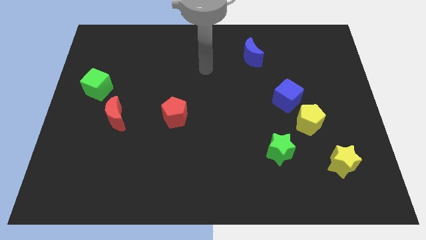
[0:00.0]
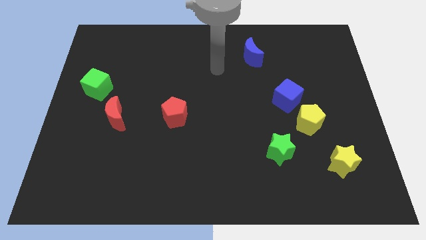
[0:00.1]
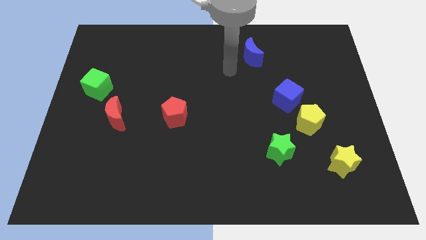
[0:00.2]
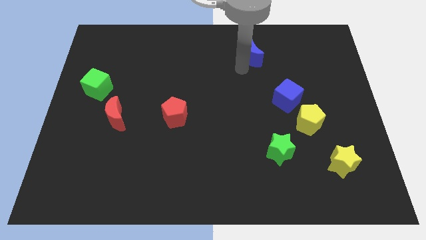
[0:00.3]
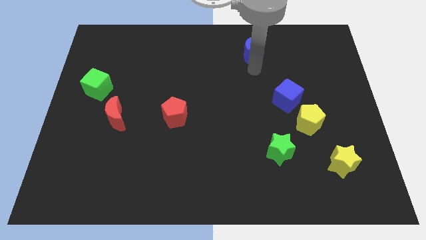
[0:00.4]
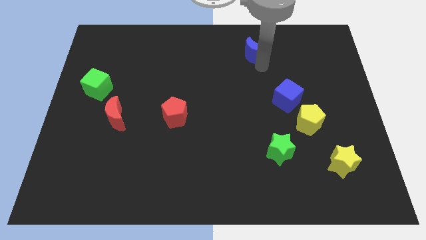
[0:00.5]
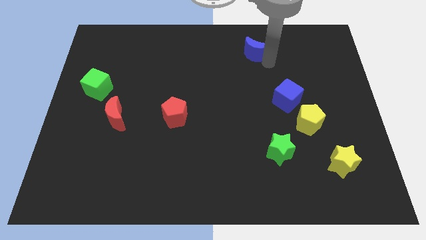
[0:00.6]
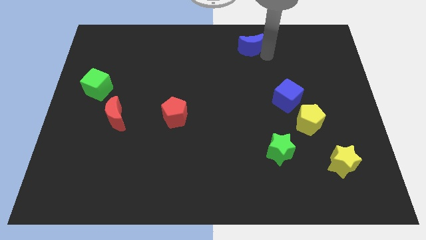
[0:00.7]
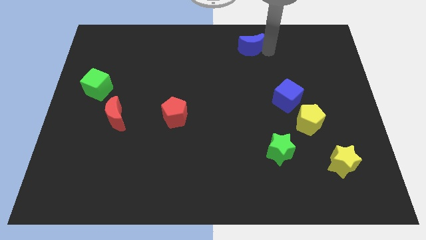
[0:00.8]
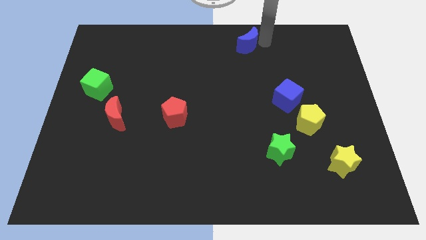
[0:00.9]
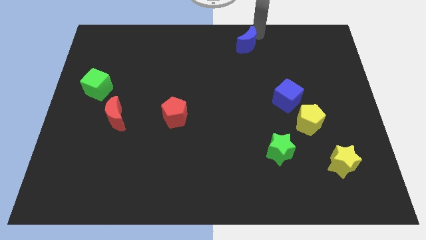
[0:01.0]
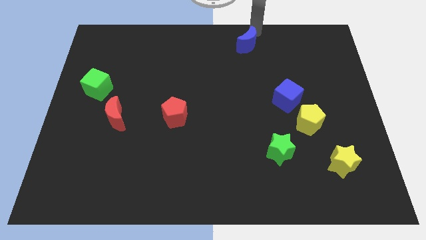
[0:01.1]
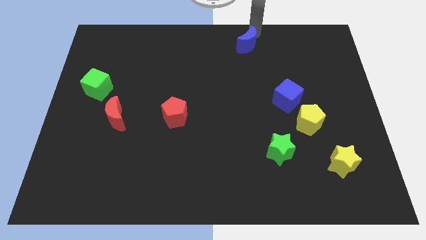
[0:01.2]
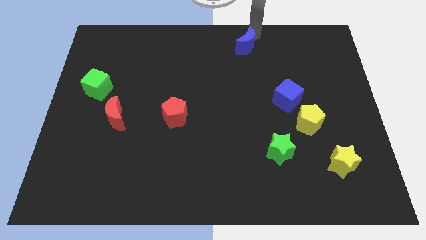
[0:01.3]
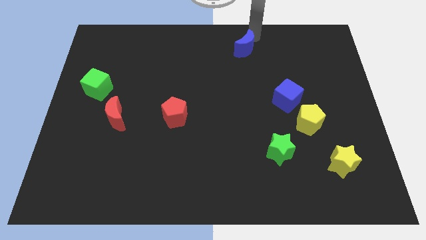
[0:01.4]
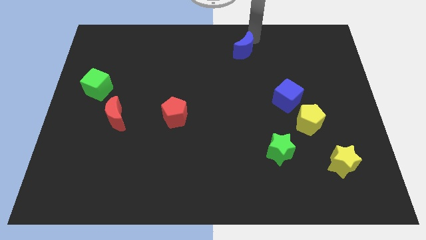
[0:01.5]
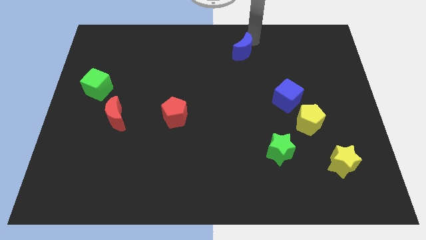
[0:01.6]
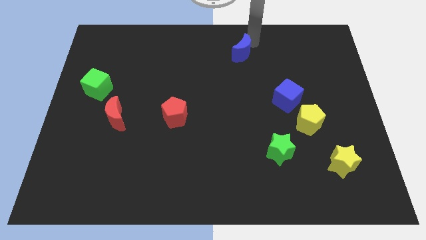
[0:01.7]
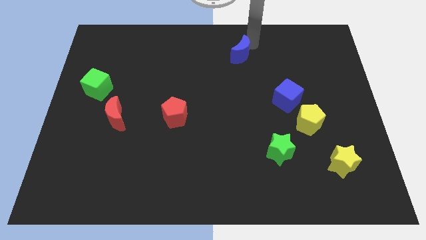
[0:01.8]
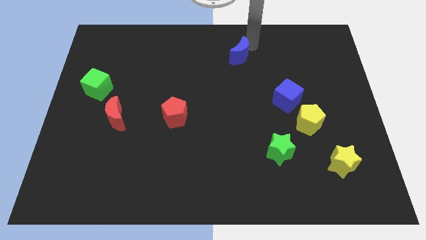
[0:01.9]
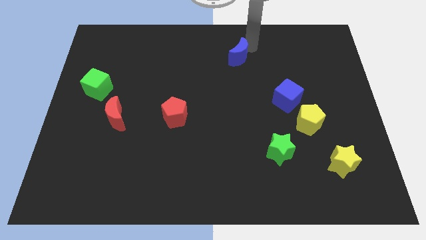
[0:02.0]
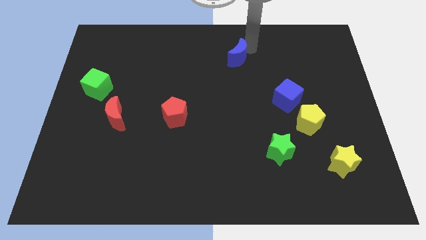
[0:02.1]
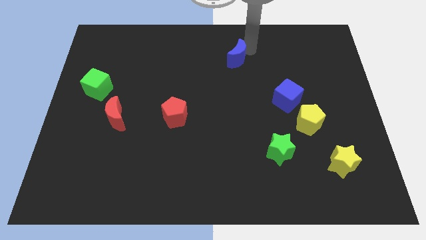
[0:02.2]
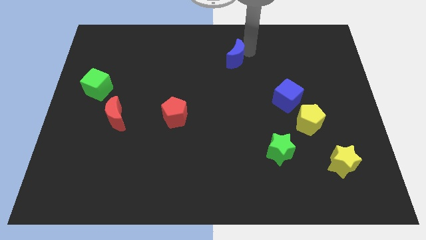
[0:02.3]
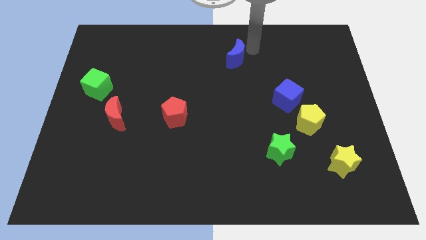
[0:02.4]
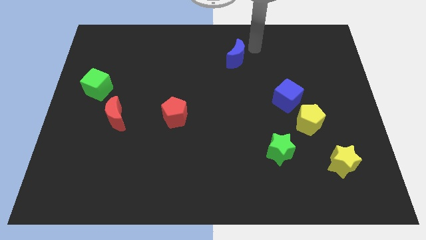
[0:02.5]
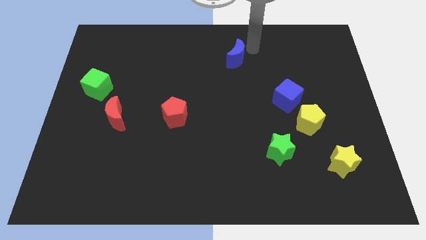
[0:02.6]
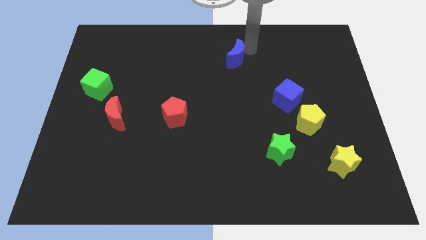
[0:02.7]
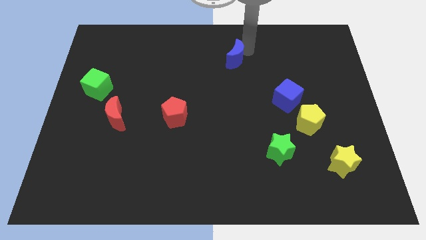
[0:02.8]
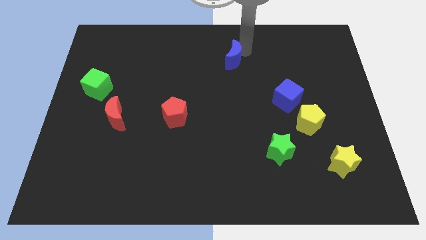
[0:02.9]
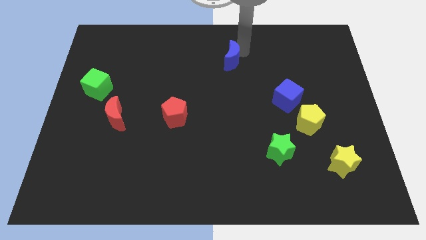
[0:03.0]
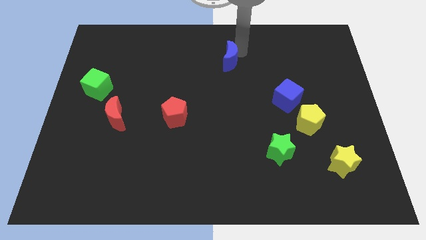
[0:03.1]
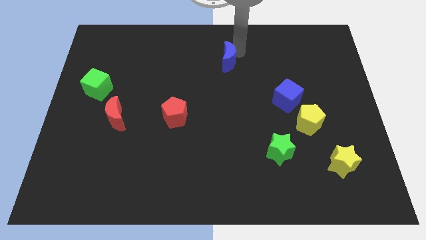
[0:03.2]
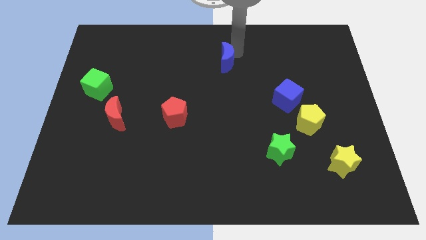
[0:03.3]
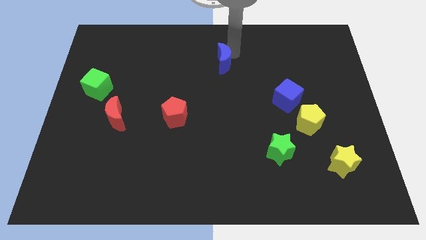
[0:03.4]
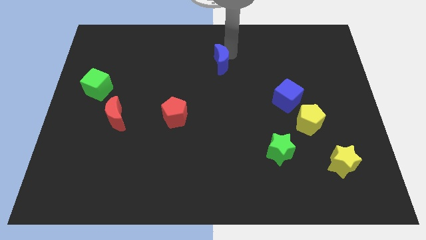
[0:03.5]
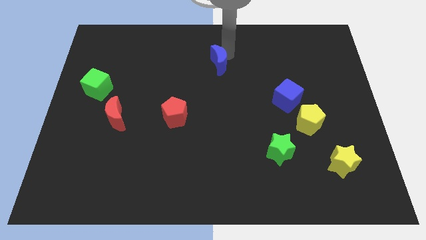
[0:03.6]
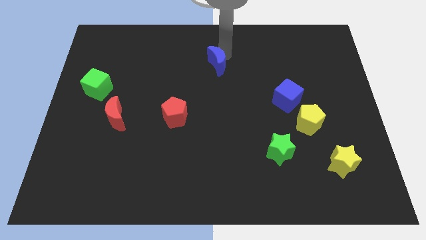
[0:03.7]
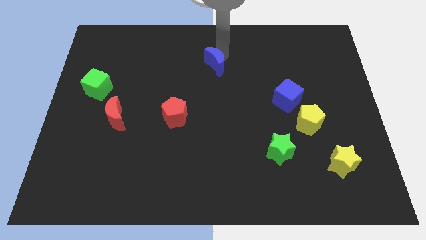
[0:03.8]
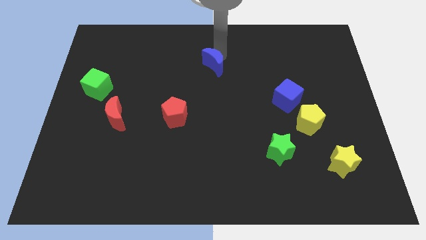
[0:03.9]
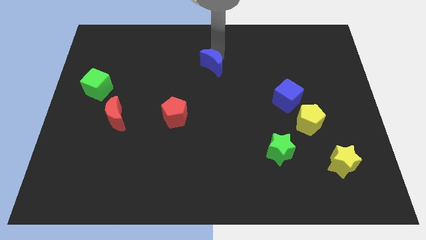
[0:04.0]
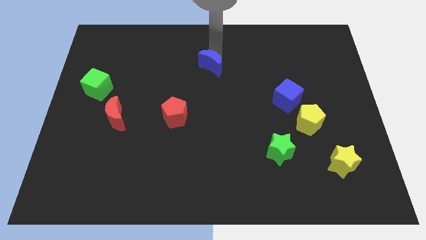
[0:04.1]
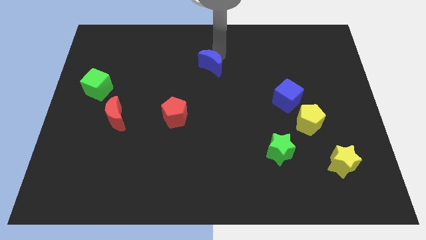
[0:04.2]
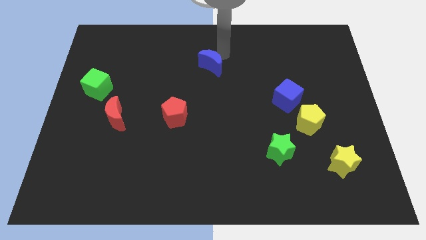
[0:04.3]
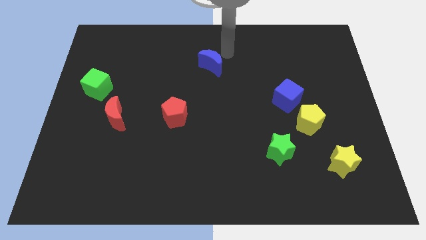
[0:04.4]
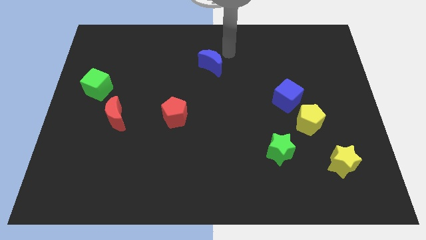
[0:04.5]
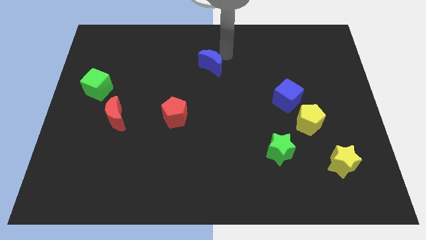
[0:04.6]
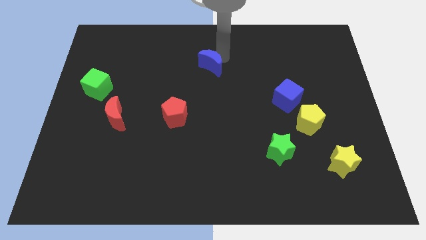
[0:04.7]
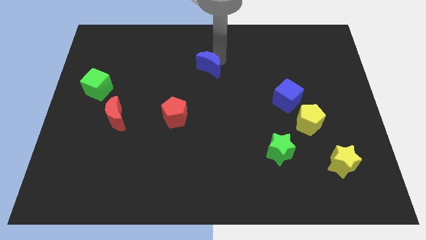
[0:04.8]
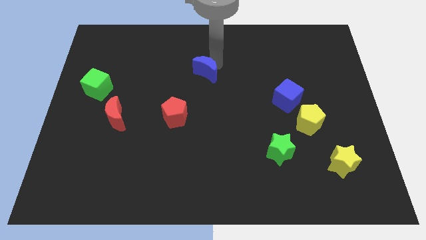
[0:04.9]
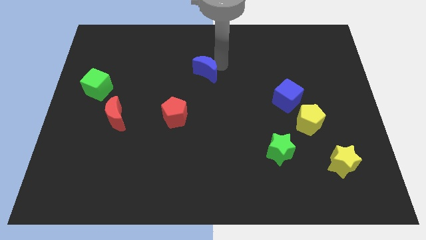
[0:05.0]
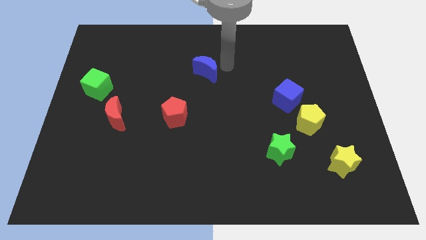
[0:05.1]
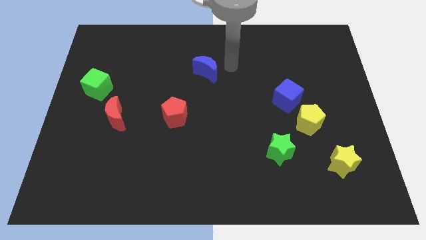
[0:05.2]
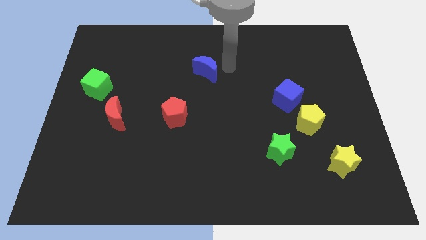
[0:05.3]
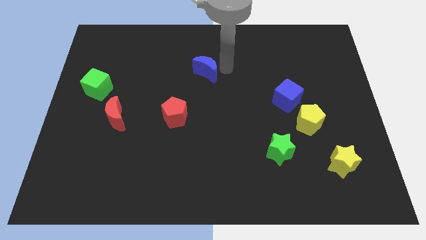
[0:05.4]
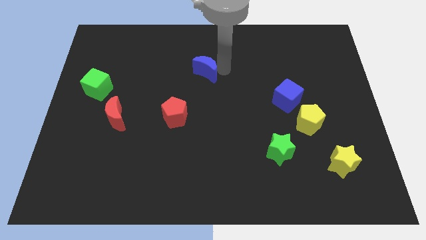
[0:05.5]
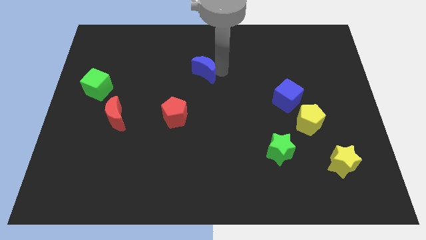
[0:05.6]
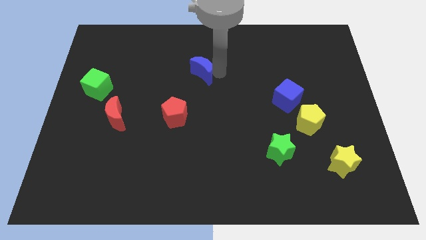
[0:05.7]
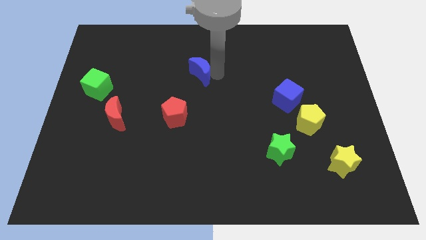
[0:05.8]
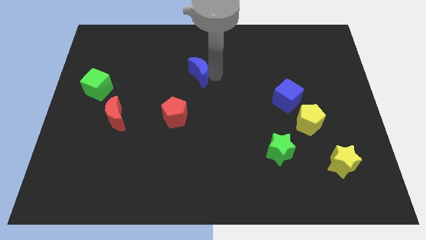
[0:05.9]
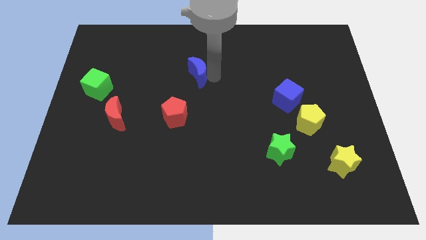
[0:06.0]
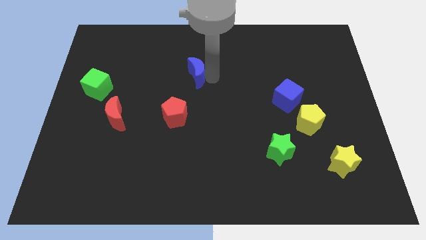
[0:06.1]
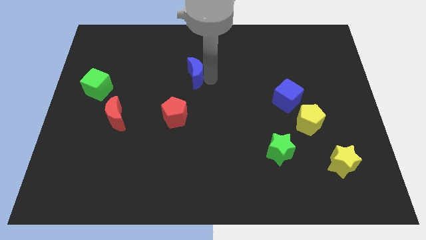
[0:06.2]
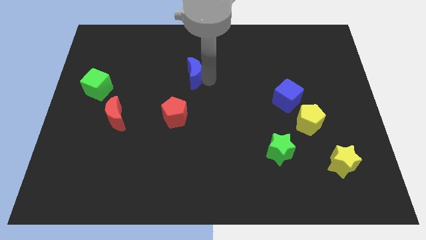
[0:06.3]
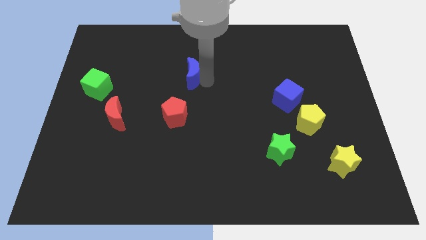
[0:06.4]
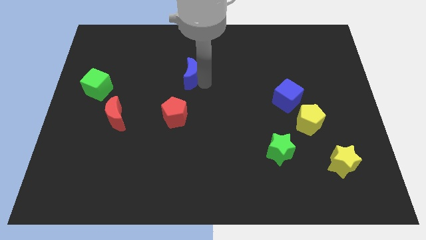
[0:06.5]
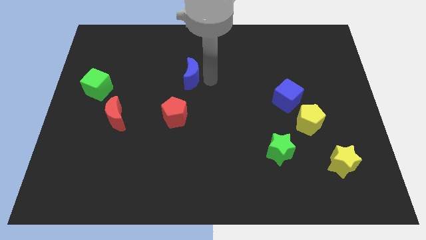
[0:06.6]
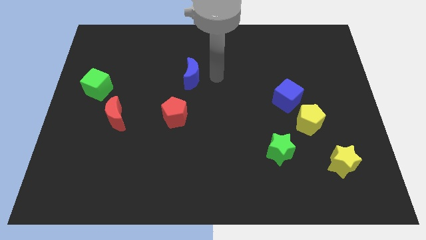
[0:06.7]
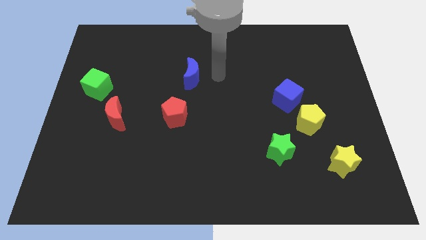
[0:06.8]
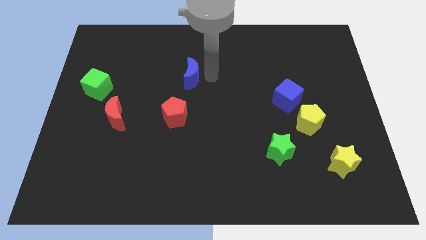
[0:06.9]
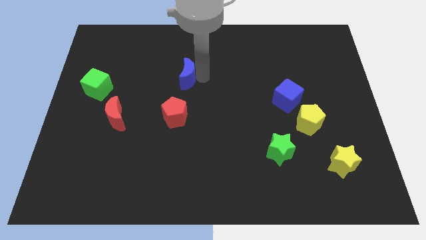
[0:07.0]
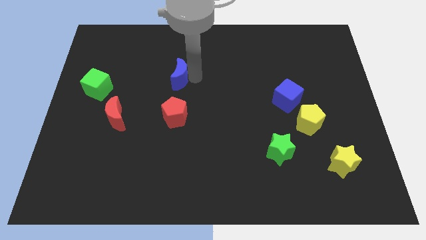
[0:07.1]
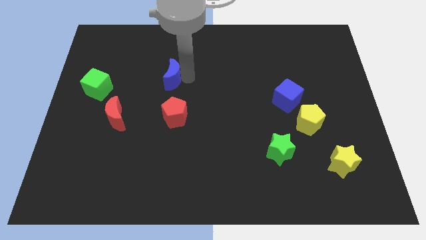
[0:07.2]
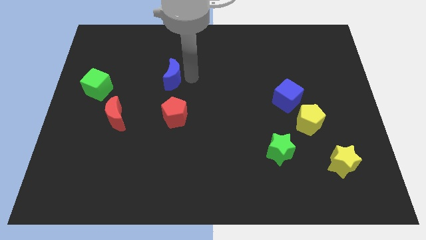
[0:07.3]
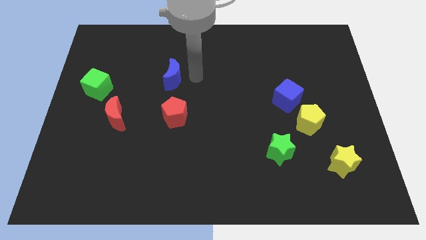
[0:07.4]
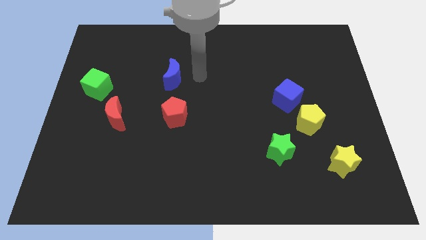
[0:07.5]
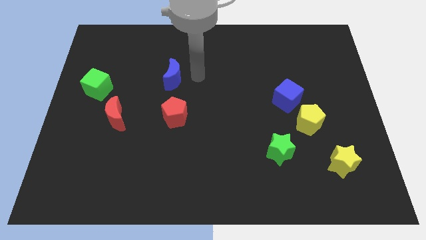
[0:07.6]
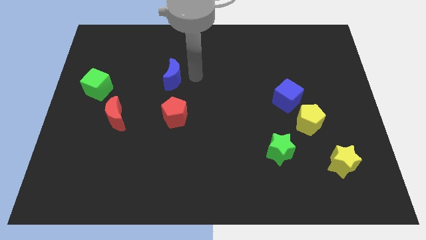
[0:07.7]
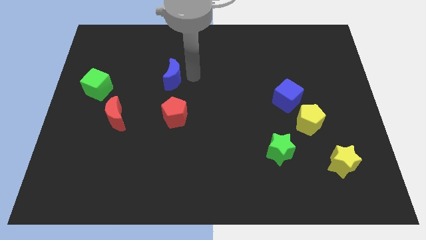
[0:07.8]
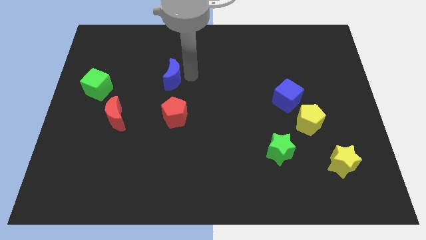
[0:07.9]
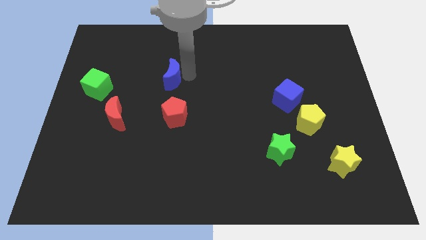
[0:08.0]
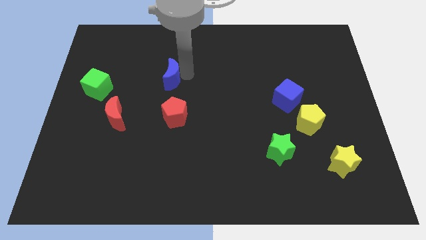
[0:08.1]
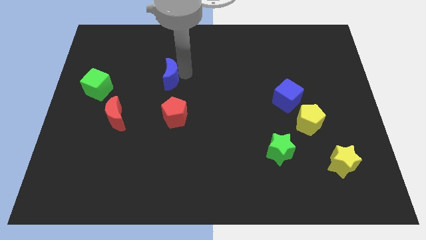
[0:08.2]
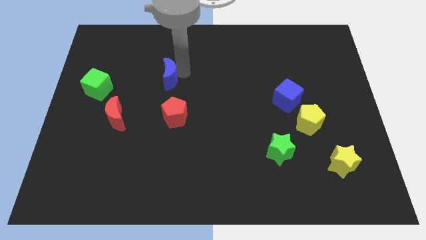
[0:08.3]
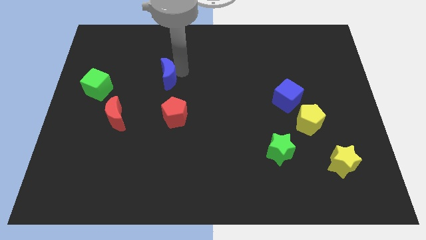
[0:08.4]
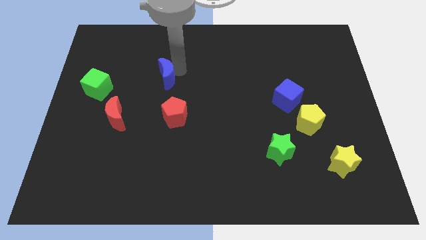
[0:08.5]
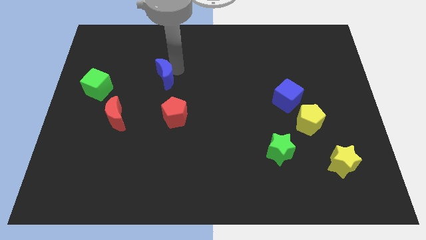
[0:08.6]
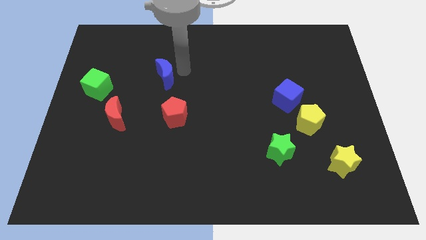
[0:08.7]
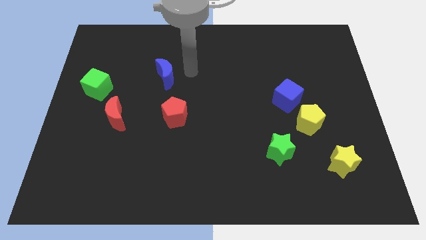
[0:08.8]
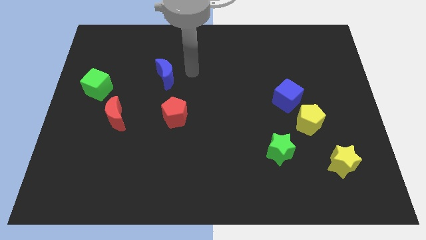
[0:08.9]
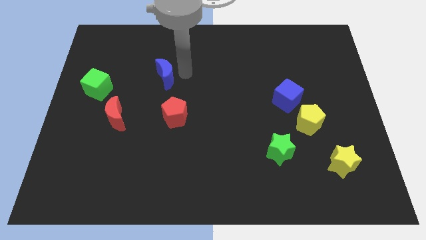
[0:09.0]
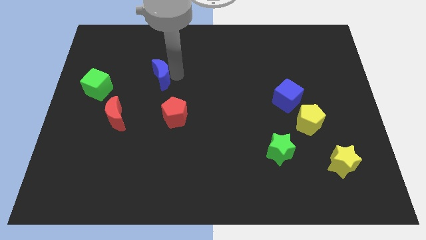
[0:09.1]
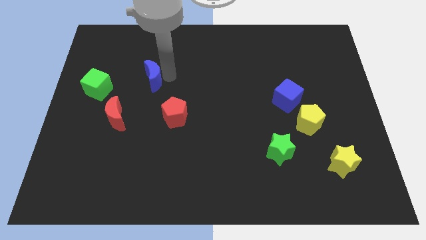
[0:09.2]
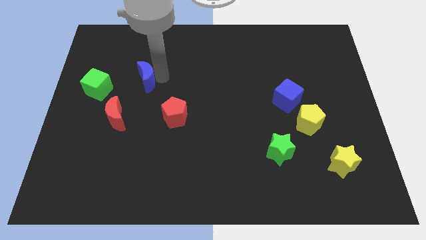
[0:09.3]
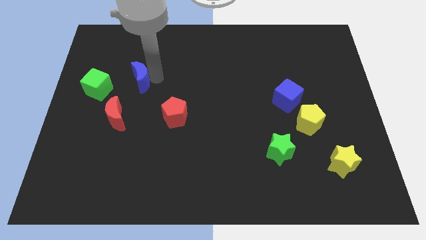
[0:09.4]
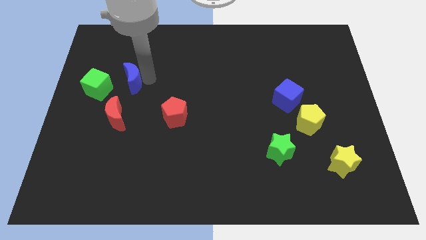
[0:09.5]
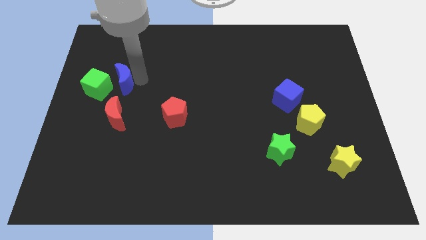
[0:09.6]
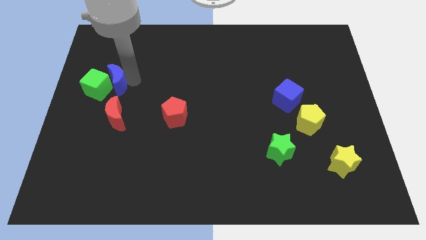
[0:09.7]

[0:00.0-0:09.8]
move the blue moon to the green cube
